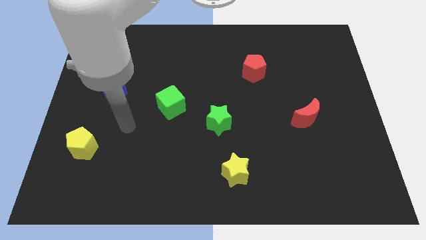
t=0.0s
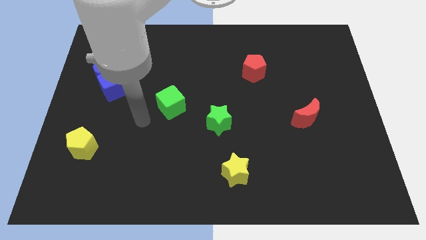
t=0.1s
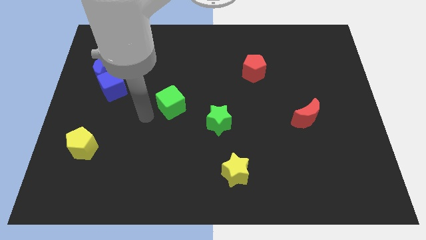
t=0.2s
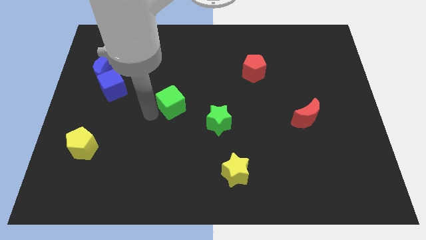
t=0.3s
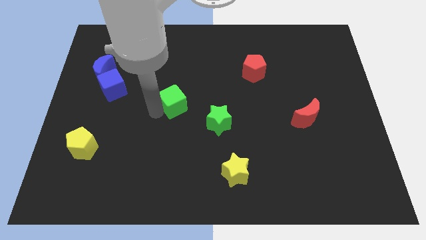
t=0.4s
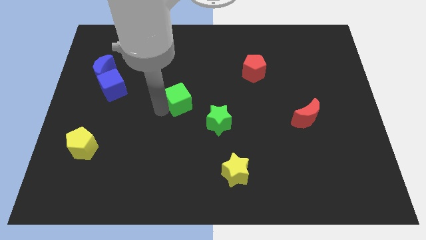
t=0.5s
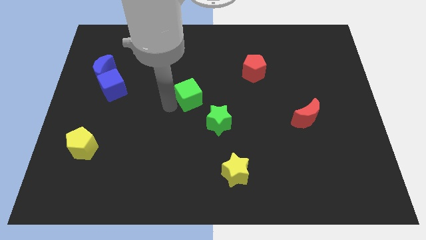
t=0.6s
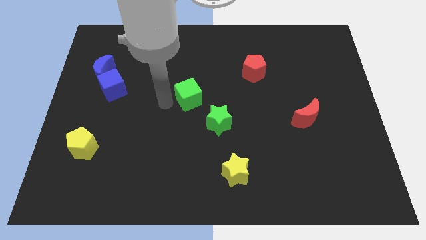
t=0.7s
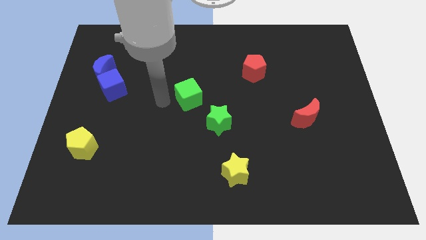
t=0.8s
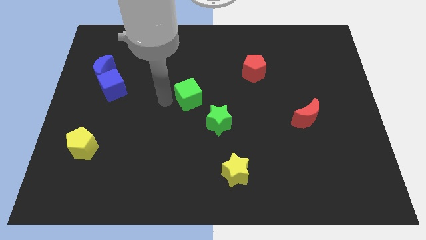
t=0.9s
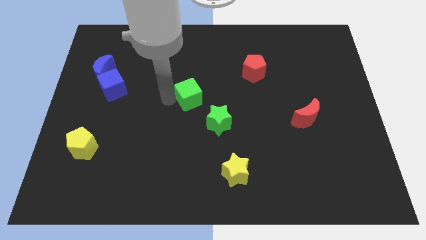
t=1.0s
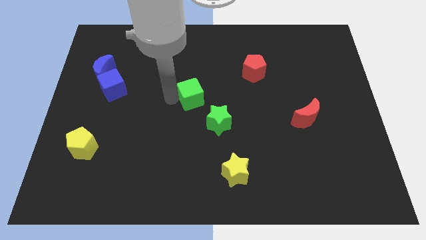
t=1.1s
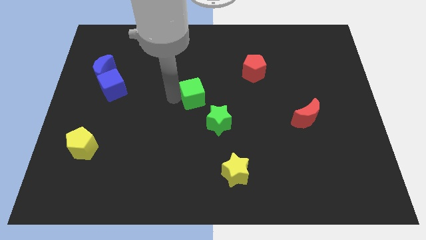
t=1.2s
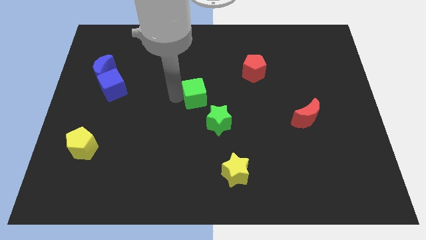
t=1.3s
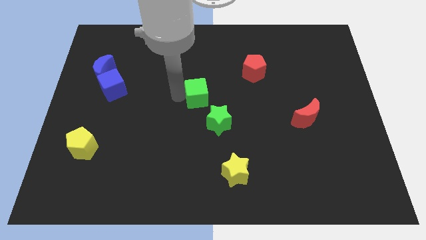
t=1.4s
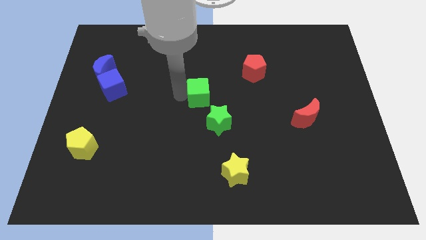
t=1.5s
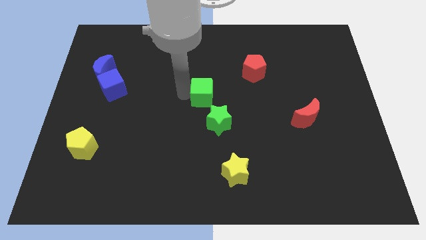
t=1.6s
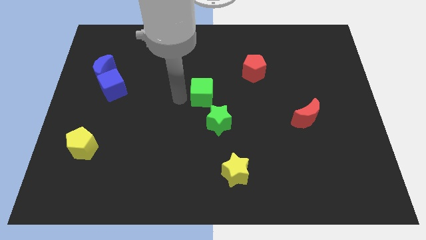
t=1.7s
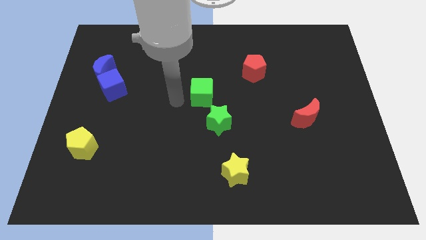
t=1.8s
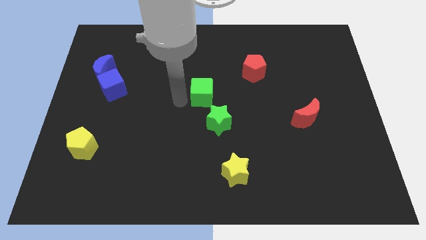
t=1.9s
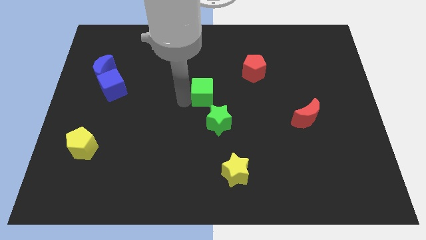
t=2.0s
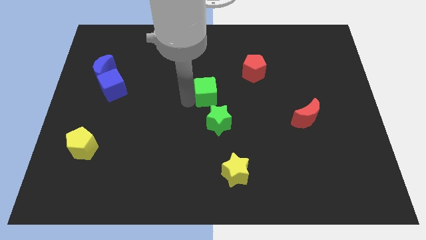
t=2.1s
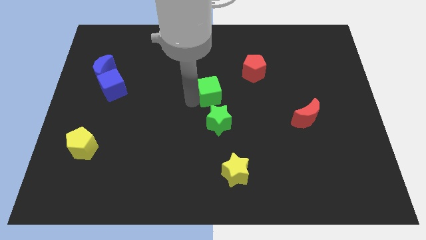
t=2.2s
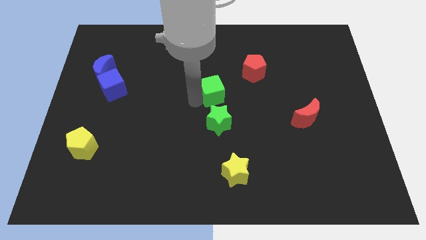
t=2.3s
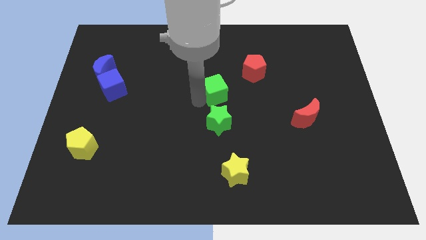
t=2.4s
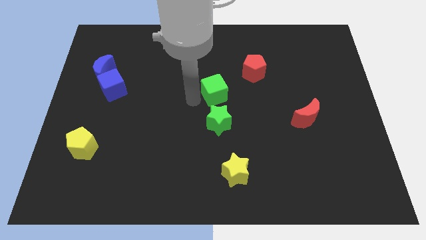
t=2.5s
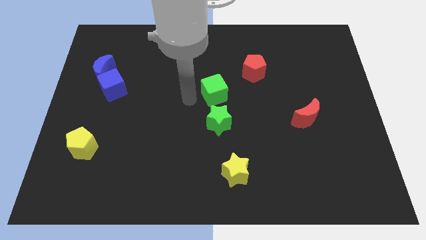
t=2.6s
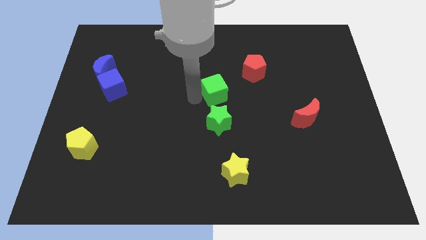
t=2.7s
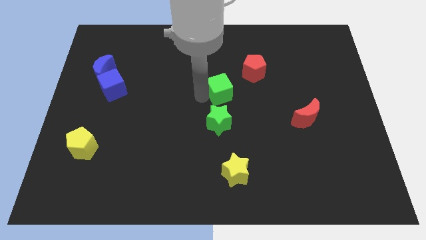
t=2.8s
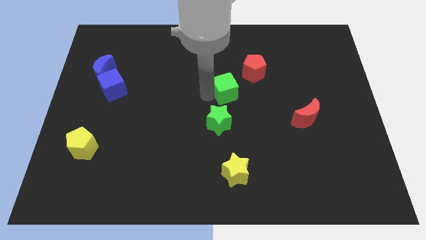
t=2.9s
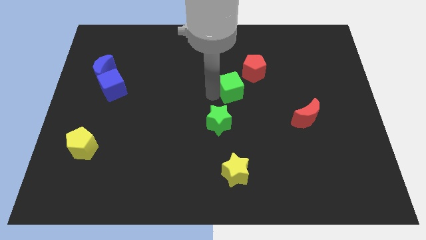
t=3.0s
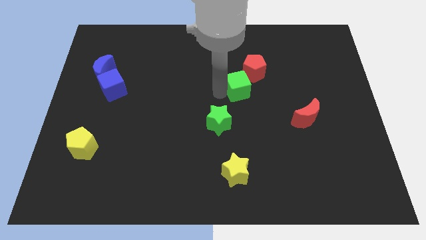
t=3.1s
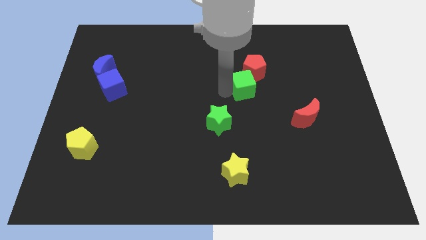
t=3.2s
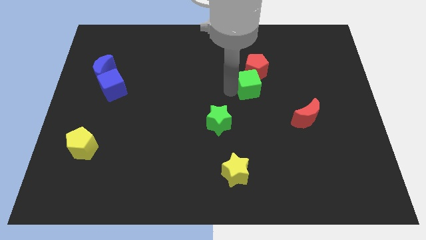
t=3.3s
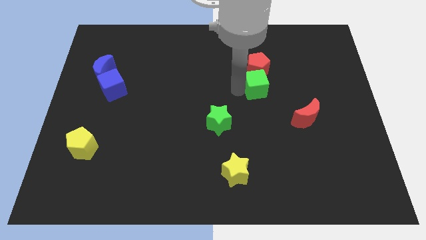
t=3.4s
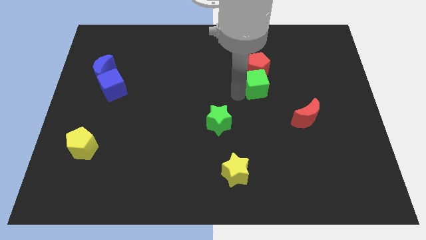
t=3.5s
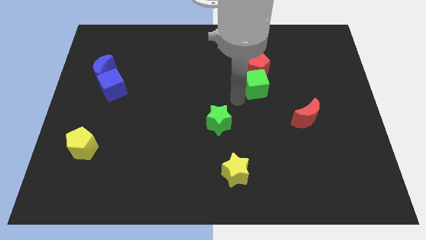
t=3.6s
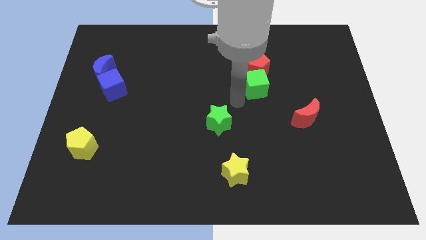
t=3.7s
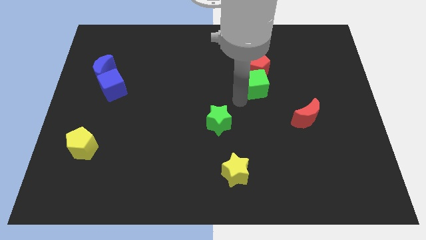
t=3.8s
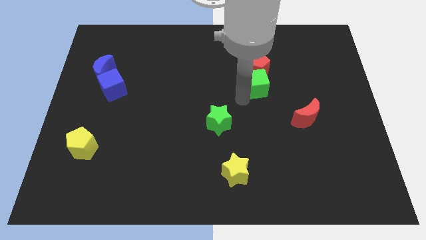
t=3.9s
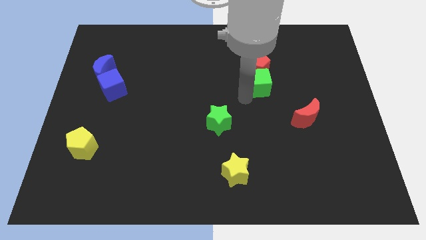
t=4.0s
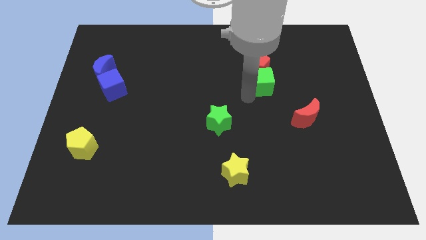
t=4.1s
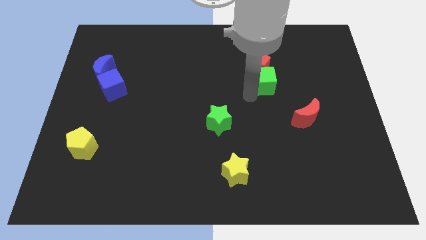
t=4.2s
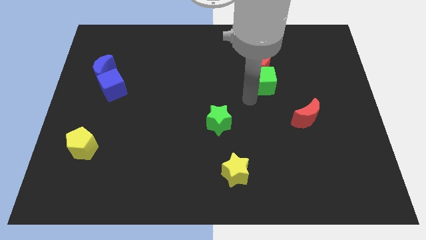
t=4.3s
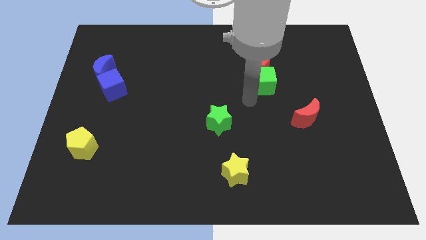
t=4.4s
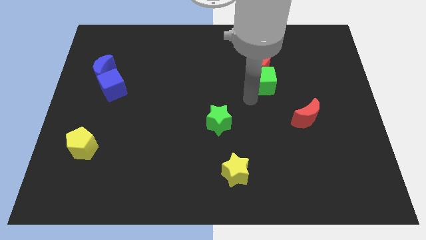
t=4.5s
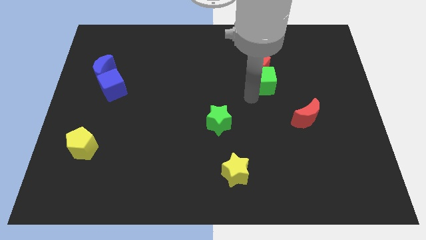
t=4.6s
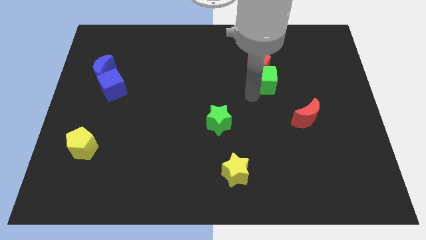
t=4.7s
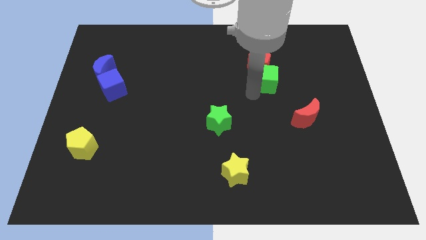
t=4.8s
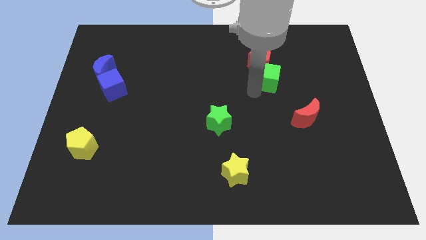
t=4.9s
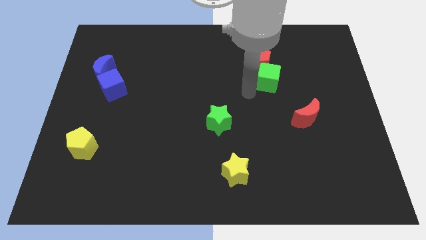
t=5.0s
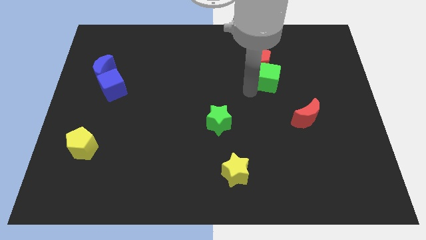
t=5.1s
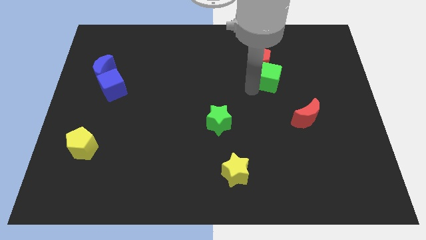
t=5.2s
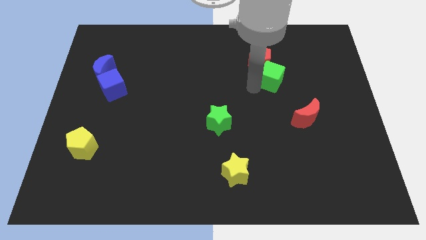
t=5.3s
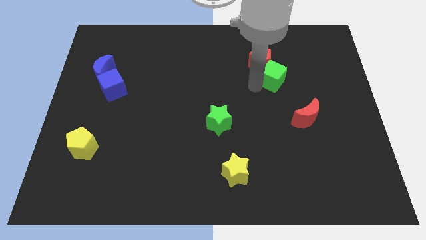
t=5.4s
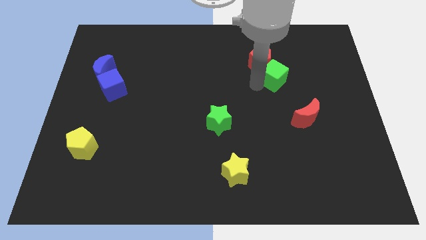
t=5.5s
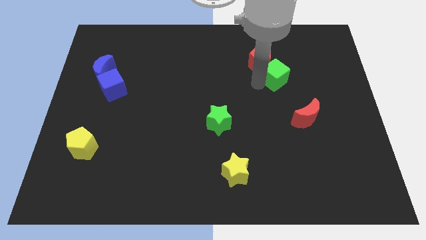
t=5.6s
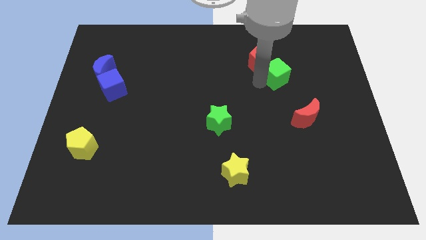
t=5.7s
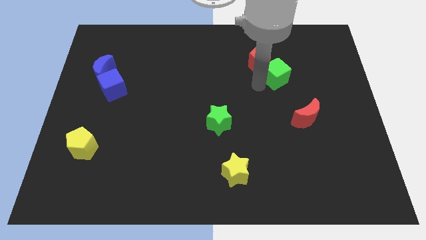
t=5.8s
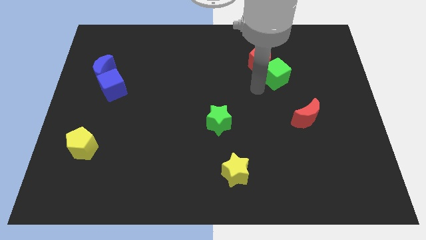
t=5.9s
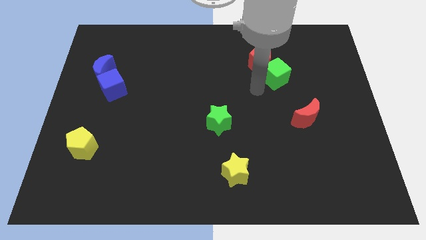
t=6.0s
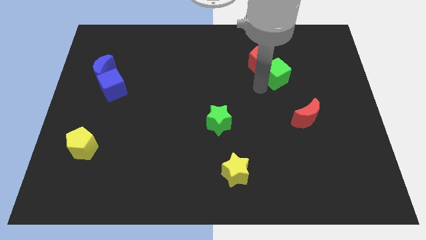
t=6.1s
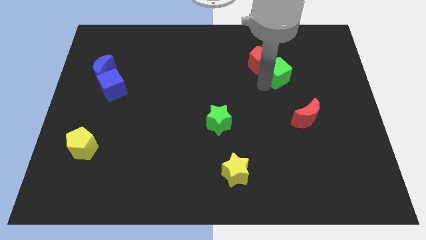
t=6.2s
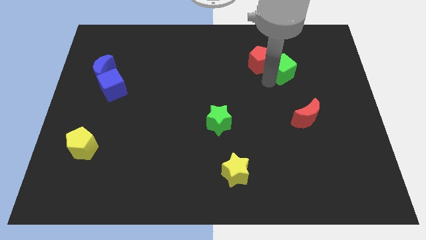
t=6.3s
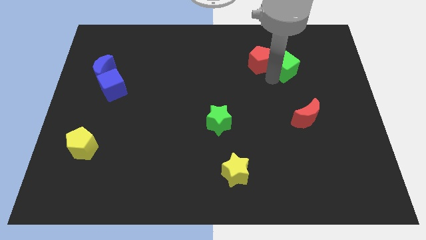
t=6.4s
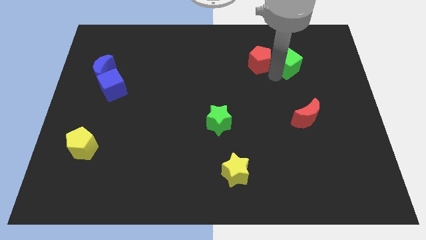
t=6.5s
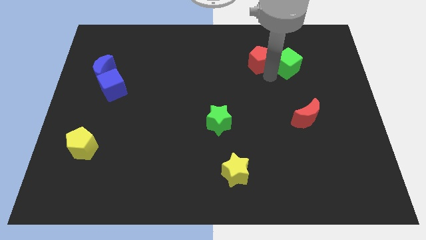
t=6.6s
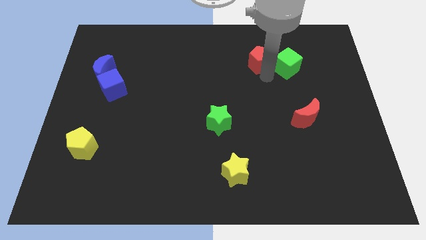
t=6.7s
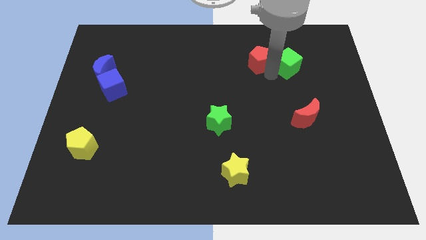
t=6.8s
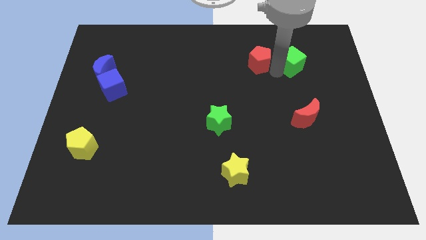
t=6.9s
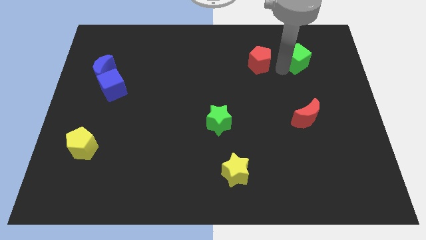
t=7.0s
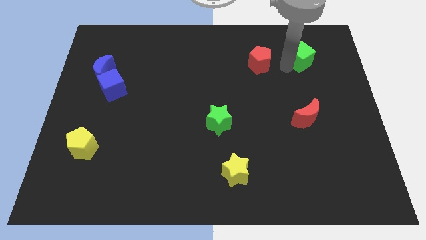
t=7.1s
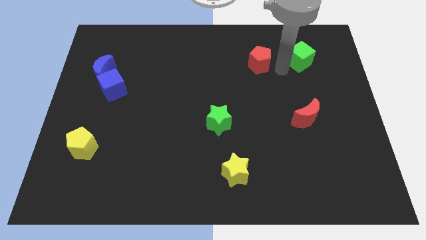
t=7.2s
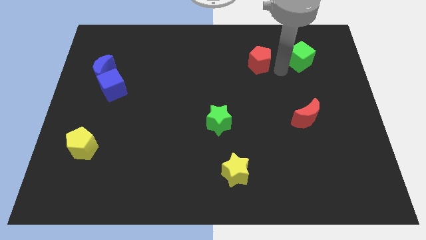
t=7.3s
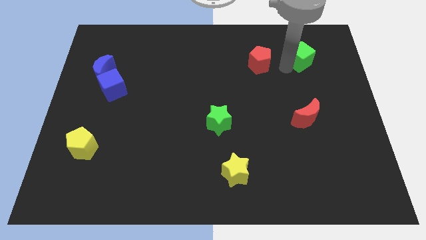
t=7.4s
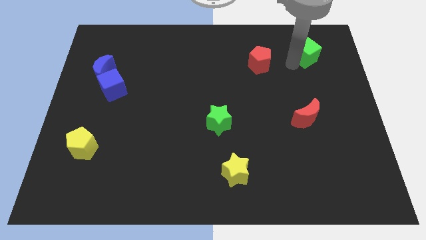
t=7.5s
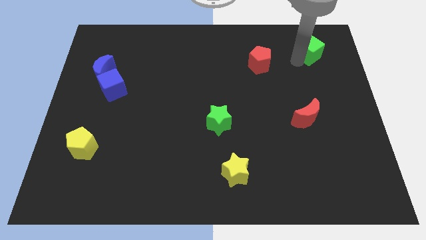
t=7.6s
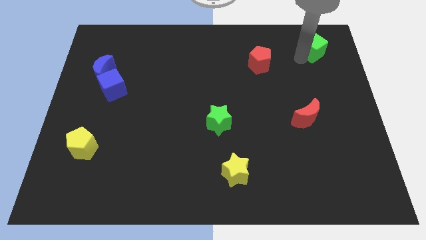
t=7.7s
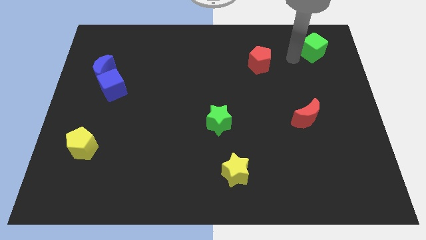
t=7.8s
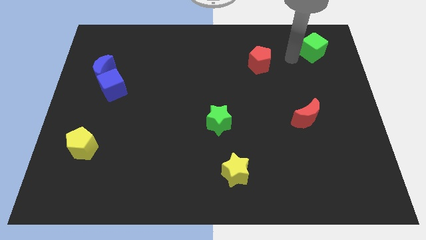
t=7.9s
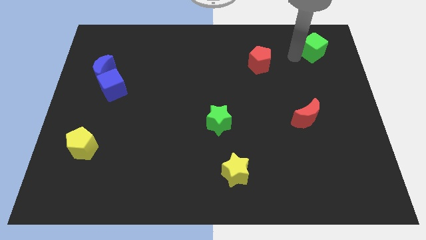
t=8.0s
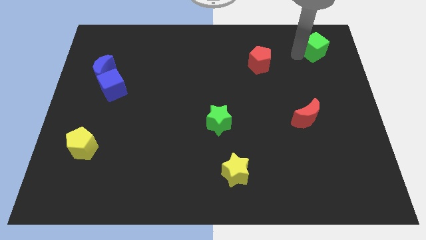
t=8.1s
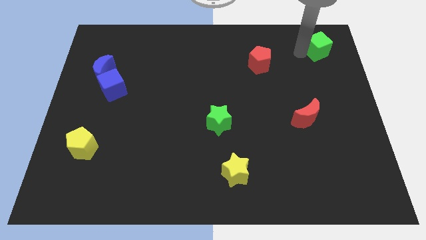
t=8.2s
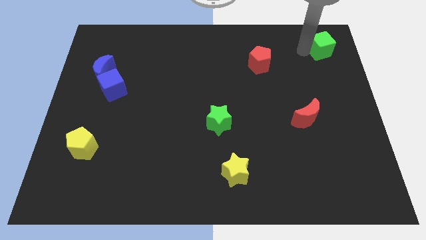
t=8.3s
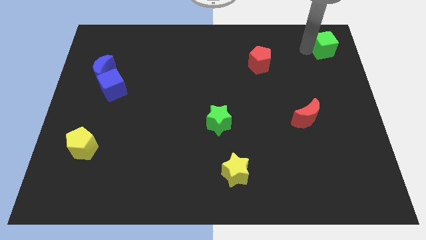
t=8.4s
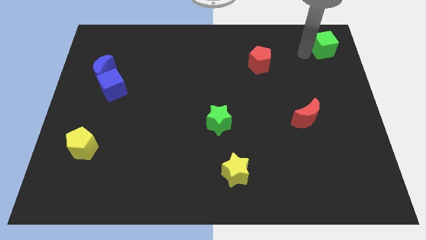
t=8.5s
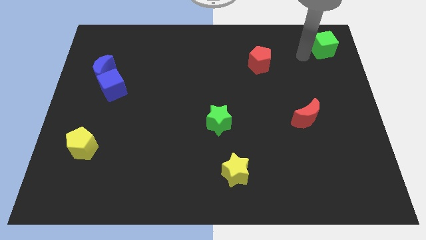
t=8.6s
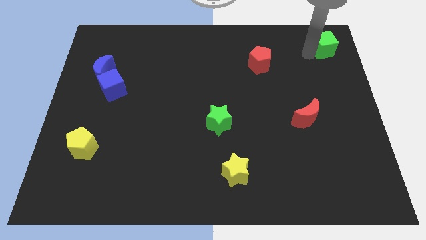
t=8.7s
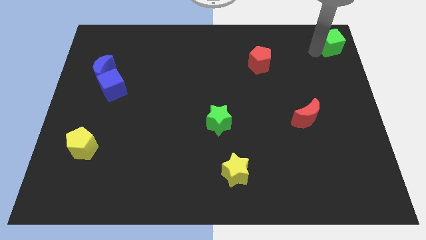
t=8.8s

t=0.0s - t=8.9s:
move the green cube to the top right
